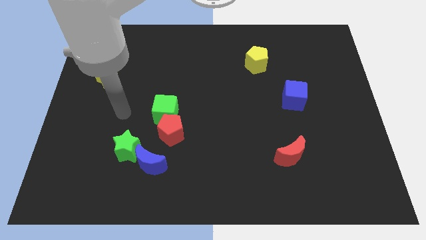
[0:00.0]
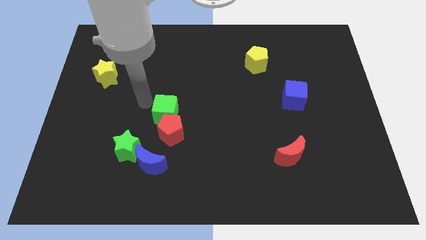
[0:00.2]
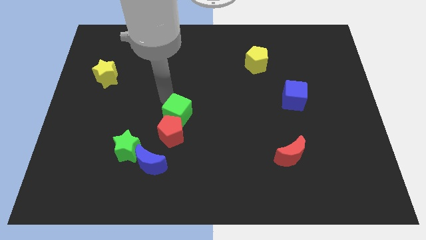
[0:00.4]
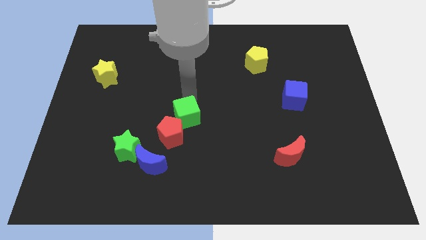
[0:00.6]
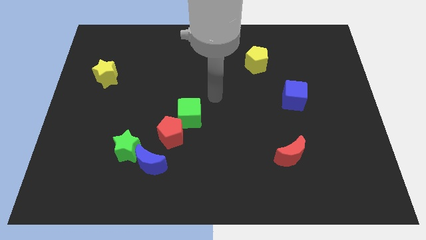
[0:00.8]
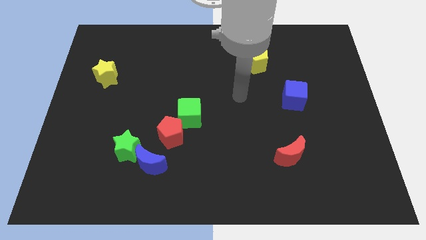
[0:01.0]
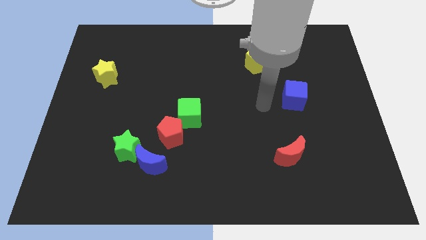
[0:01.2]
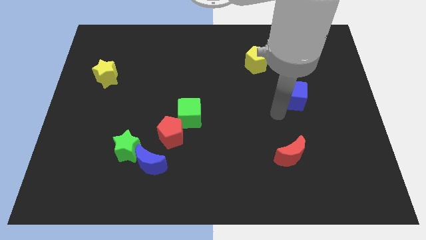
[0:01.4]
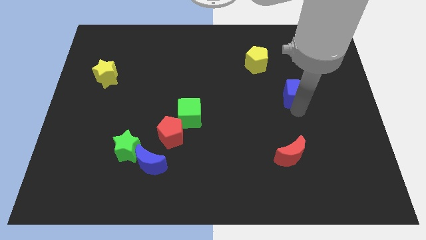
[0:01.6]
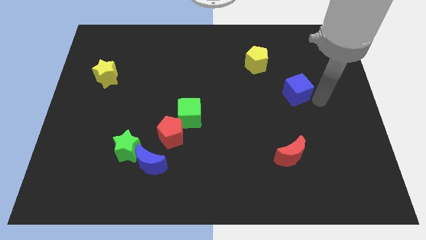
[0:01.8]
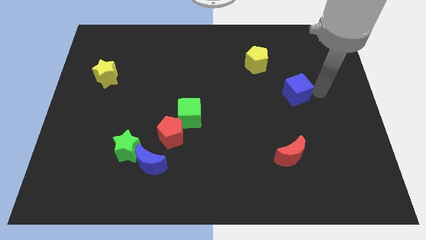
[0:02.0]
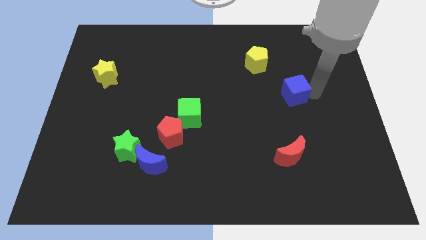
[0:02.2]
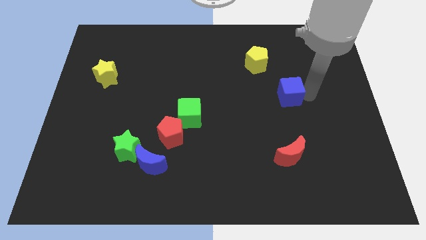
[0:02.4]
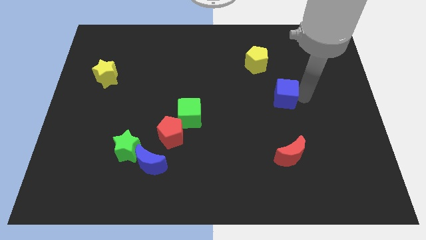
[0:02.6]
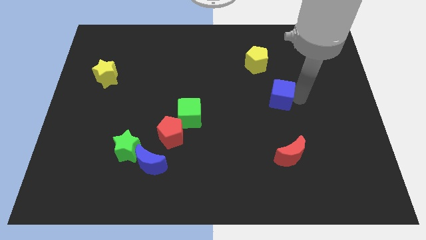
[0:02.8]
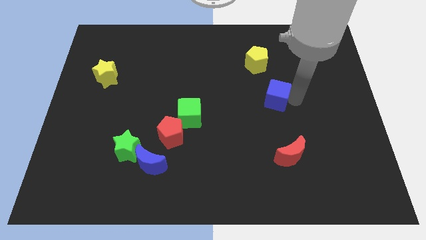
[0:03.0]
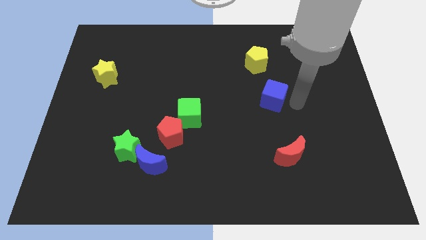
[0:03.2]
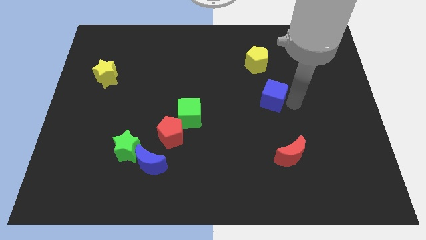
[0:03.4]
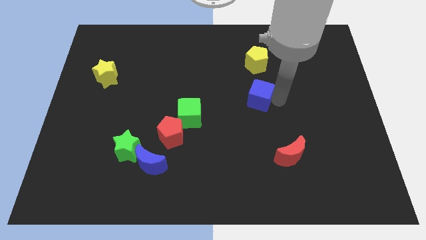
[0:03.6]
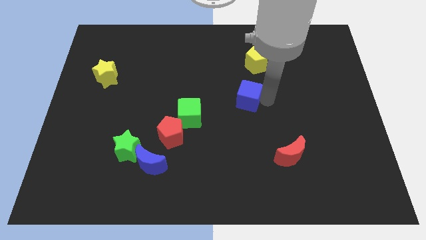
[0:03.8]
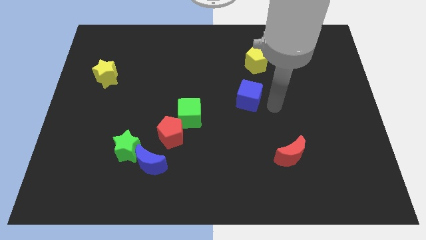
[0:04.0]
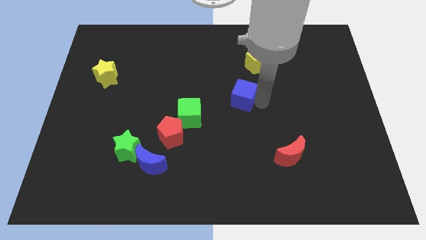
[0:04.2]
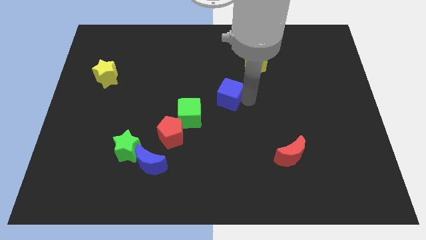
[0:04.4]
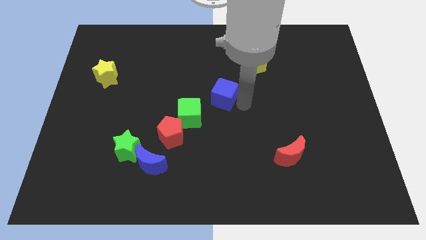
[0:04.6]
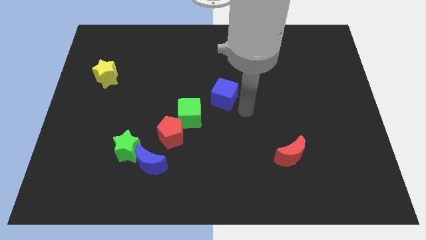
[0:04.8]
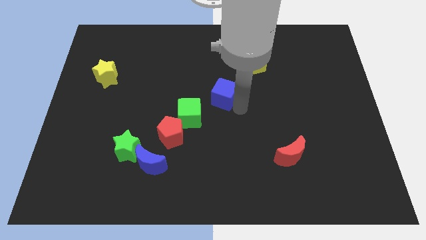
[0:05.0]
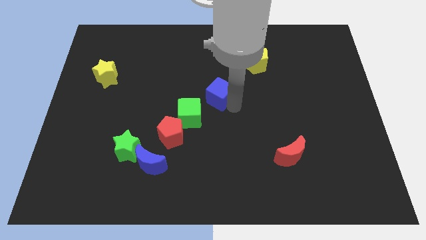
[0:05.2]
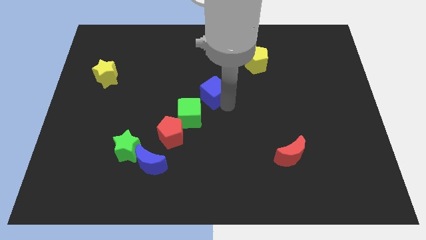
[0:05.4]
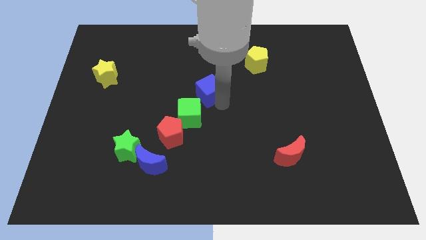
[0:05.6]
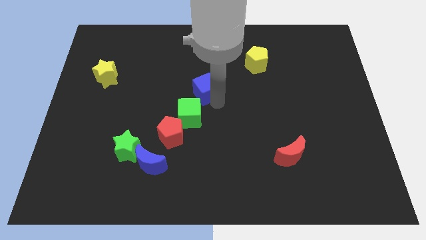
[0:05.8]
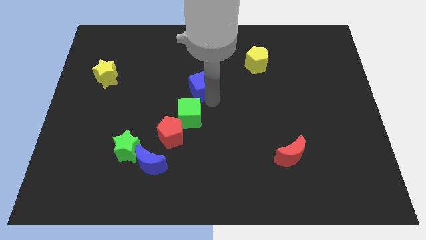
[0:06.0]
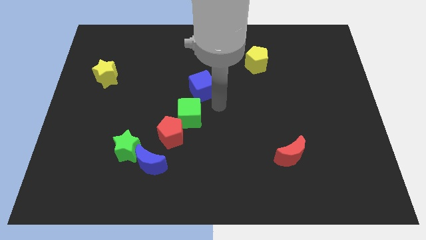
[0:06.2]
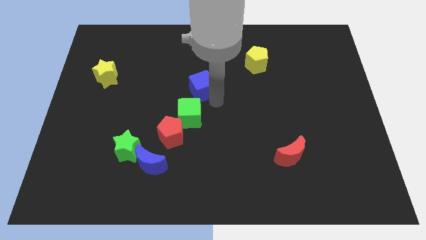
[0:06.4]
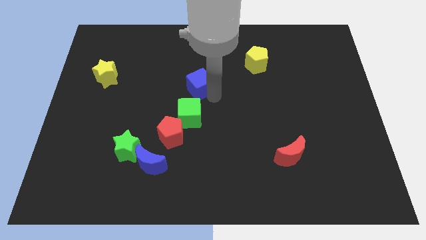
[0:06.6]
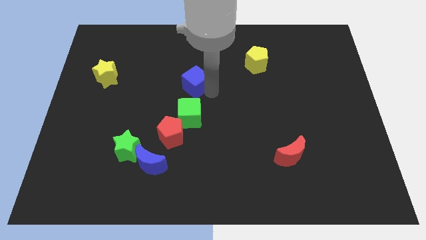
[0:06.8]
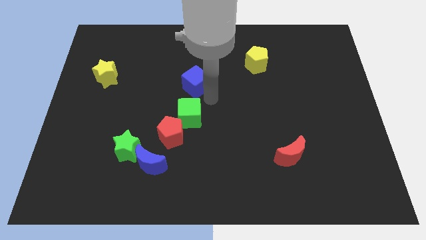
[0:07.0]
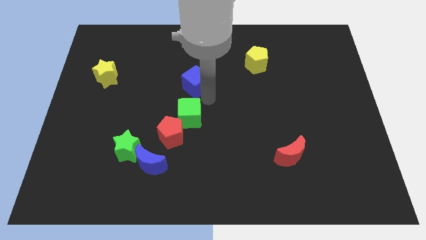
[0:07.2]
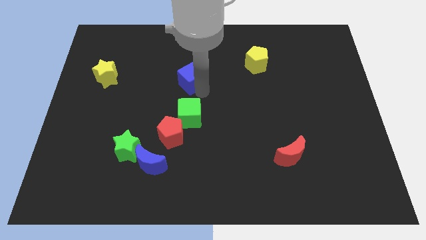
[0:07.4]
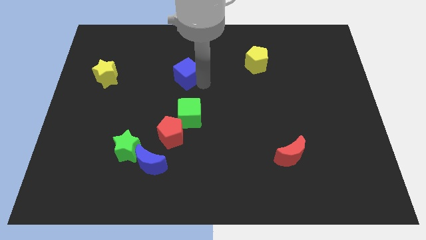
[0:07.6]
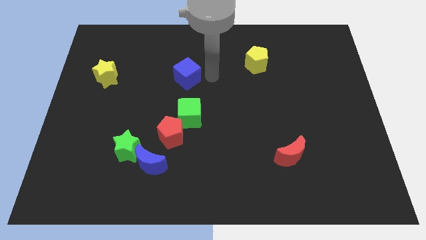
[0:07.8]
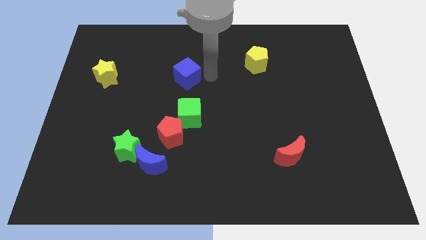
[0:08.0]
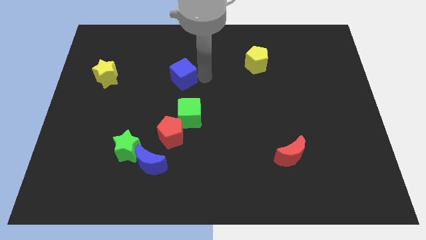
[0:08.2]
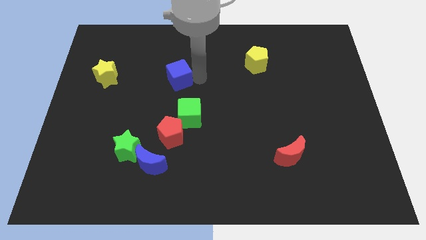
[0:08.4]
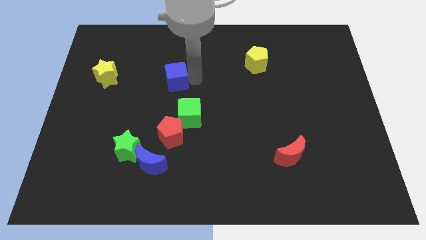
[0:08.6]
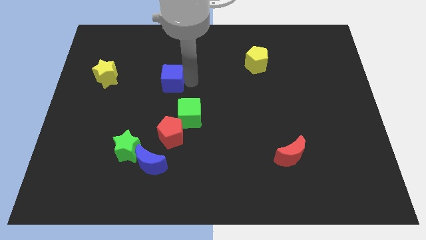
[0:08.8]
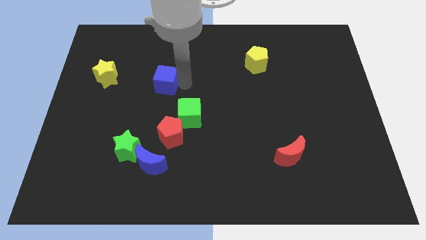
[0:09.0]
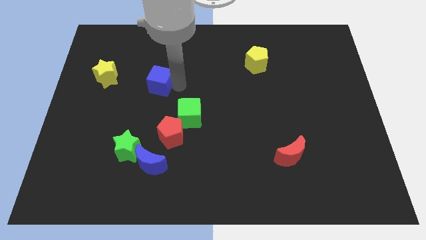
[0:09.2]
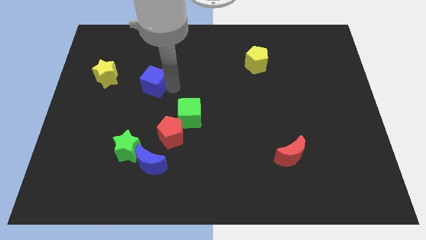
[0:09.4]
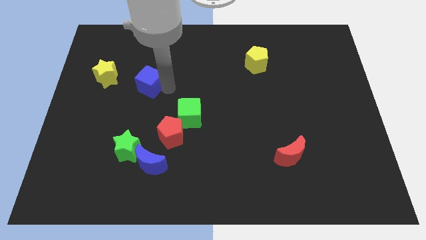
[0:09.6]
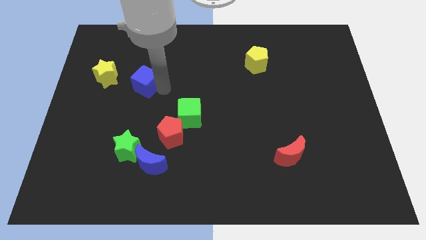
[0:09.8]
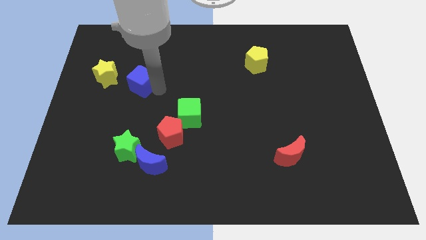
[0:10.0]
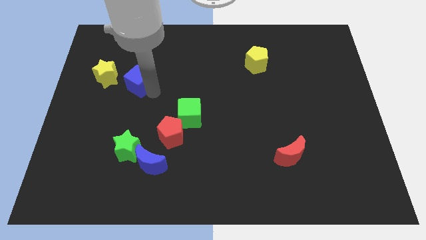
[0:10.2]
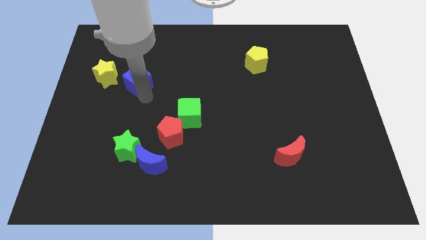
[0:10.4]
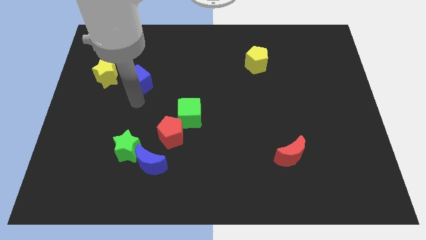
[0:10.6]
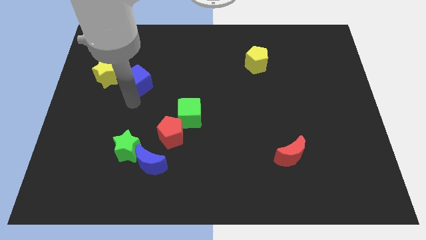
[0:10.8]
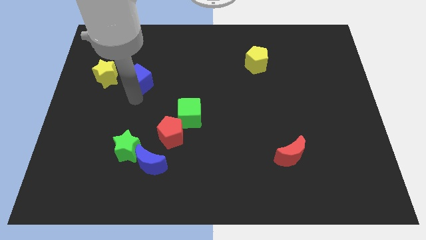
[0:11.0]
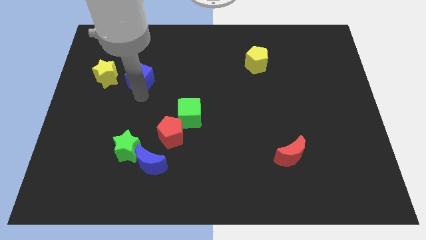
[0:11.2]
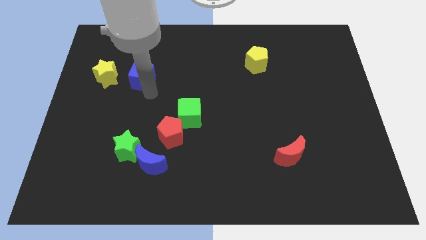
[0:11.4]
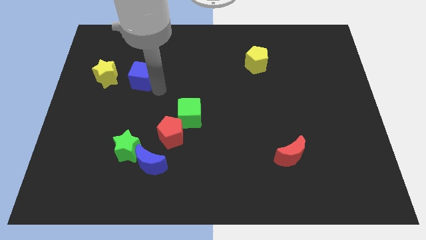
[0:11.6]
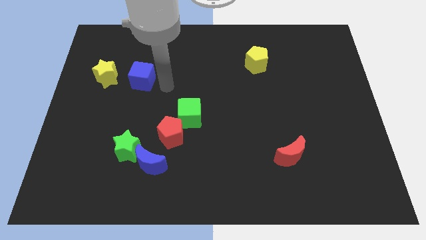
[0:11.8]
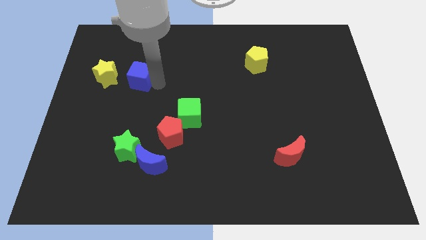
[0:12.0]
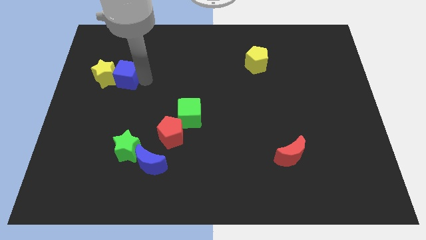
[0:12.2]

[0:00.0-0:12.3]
move the blue cube to the yellow star

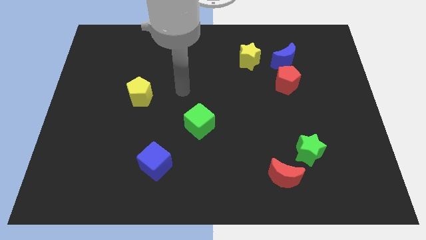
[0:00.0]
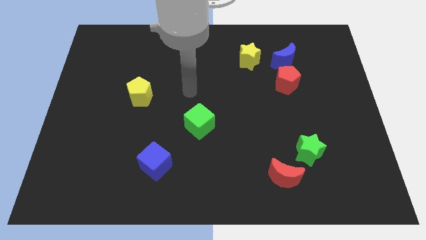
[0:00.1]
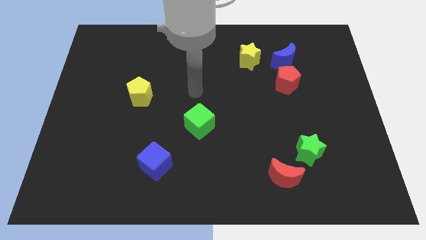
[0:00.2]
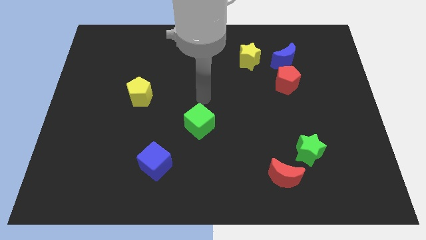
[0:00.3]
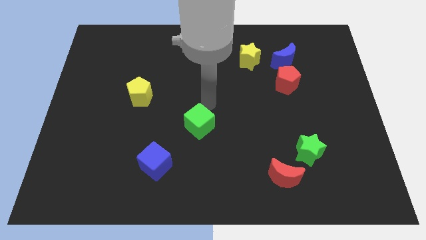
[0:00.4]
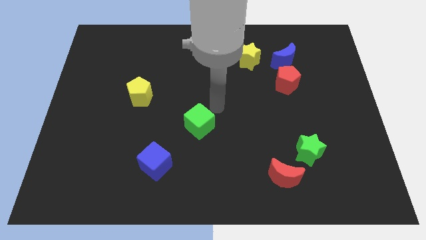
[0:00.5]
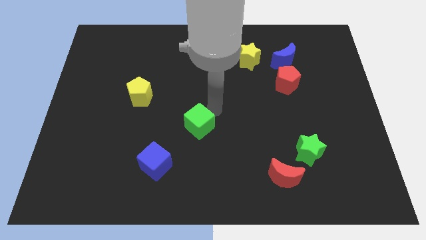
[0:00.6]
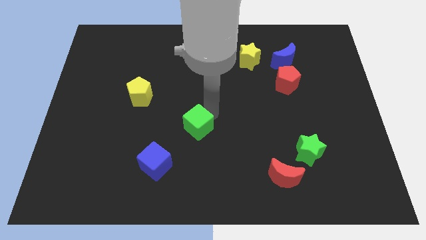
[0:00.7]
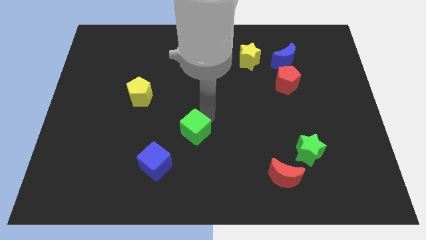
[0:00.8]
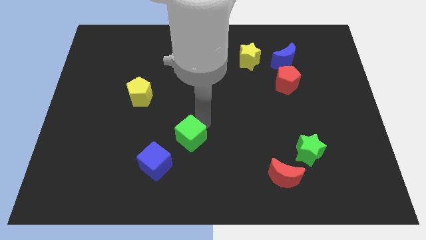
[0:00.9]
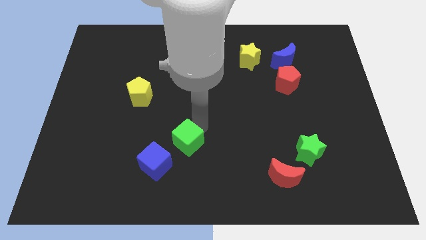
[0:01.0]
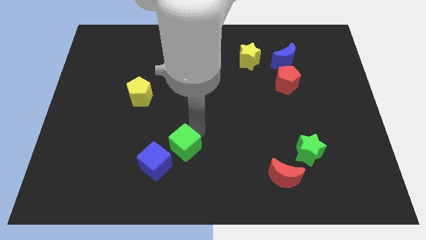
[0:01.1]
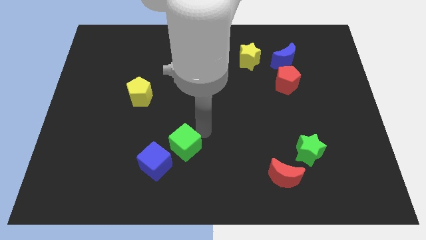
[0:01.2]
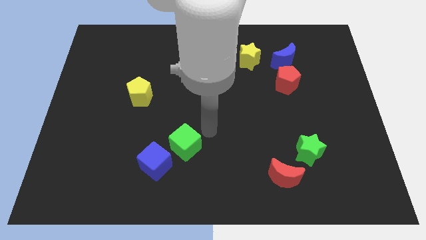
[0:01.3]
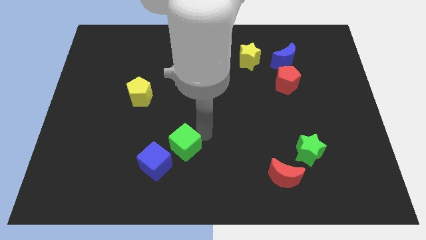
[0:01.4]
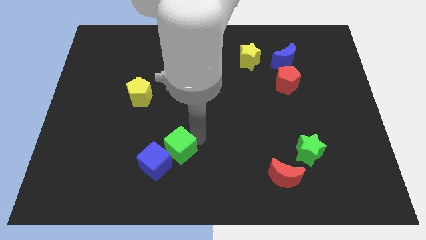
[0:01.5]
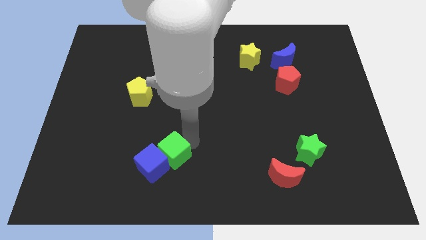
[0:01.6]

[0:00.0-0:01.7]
put the green cube to the blue cube
